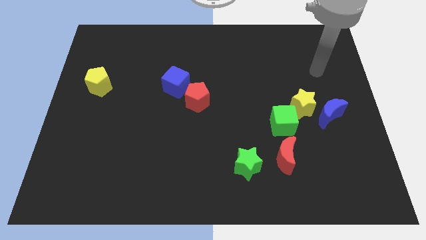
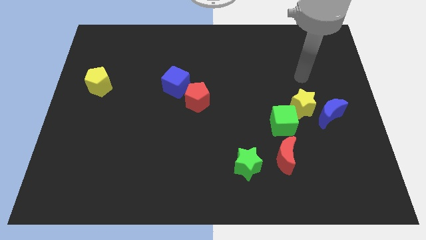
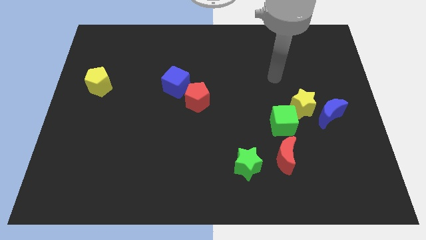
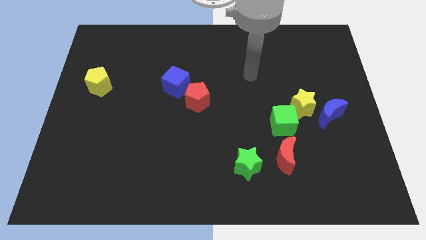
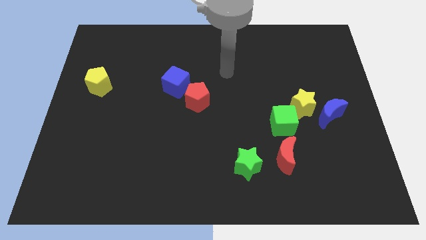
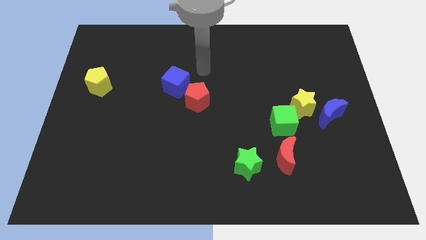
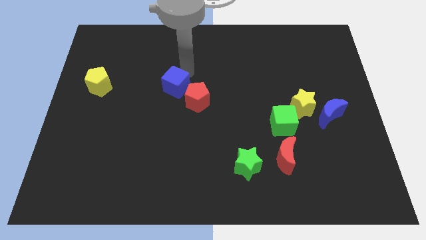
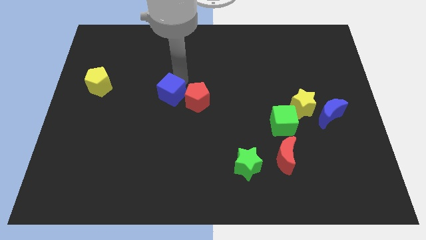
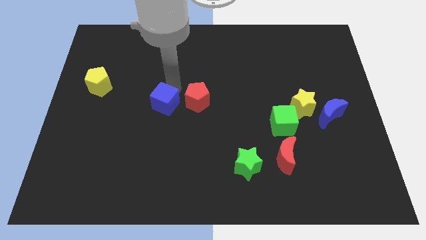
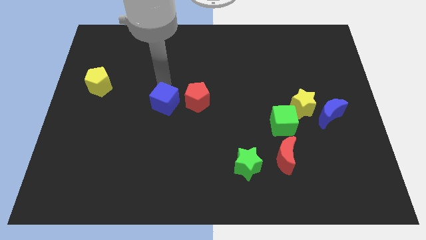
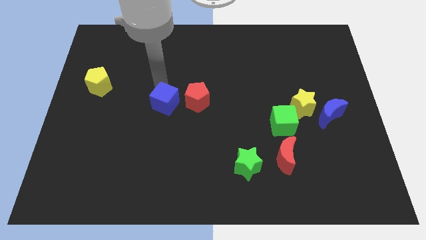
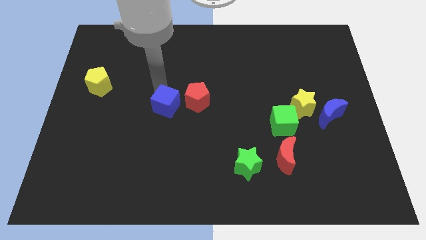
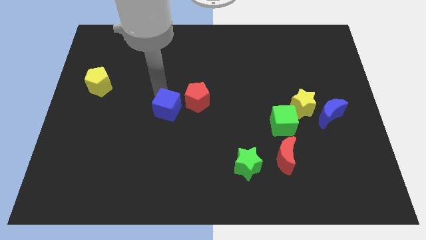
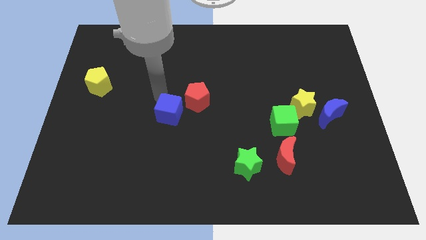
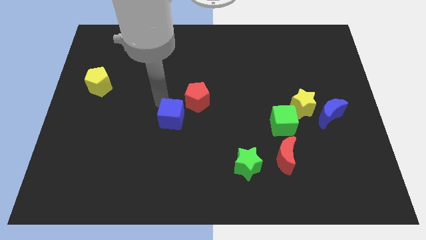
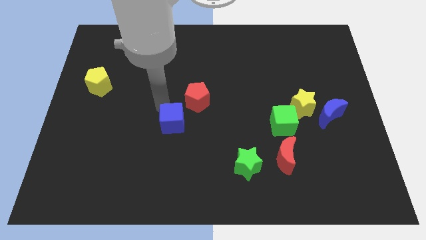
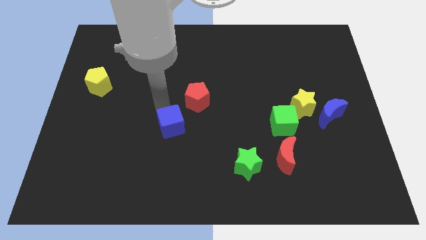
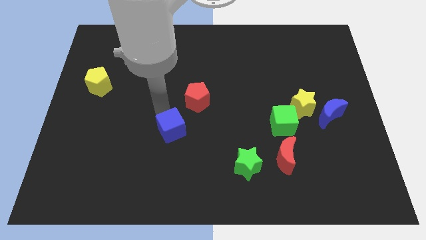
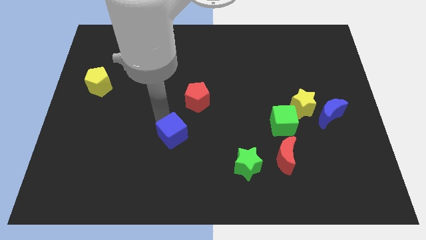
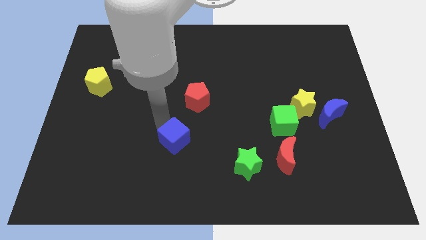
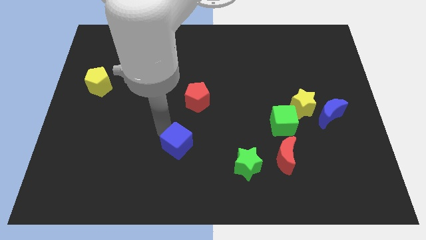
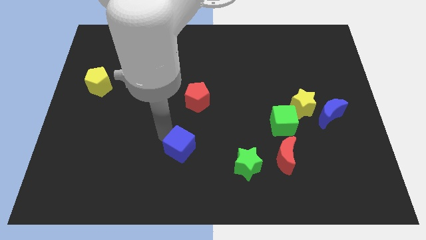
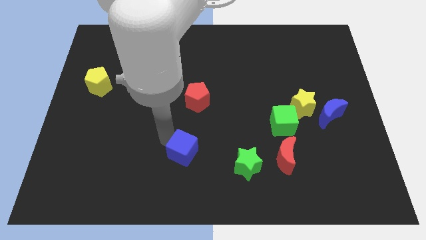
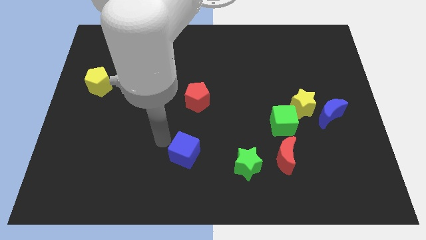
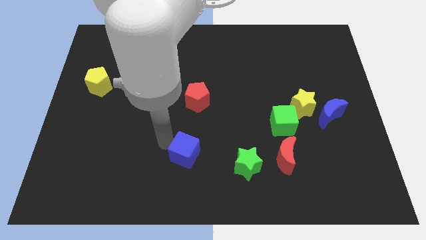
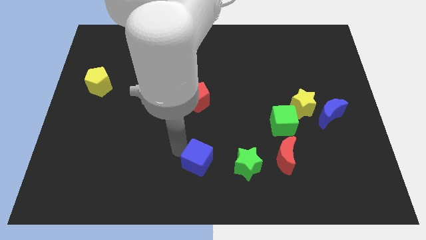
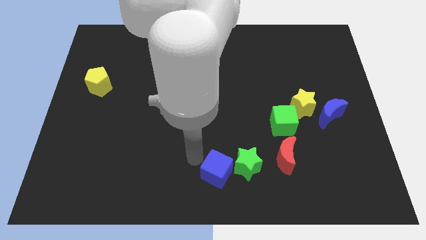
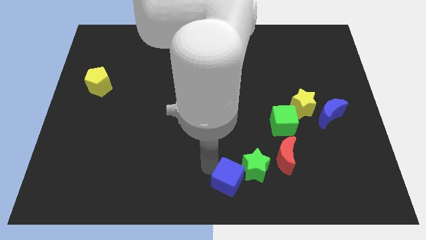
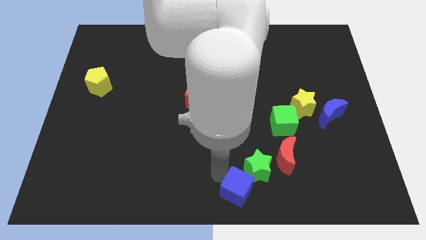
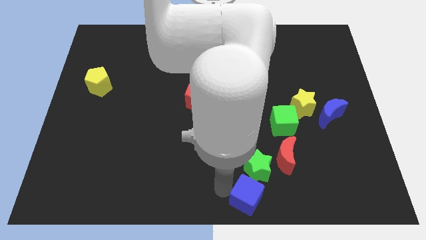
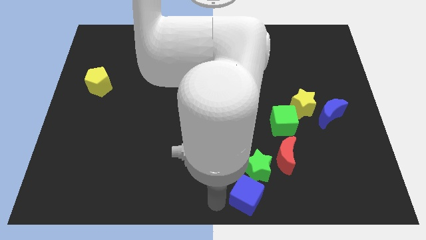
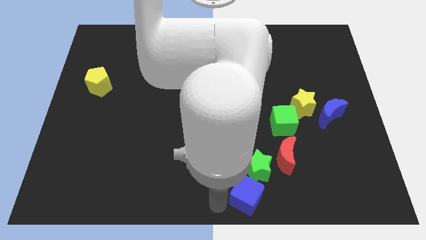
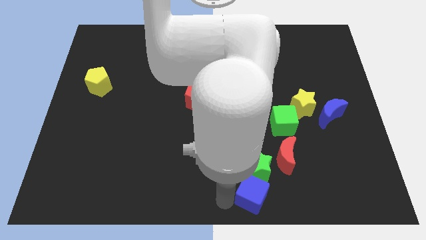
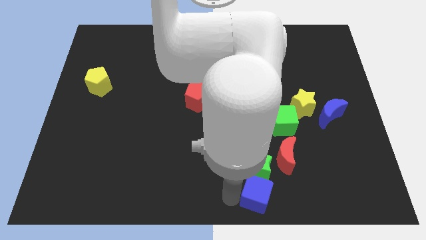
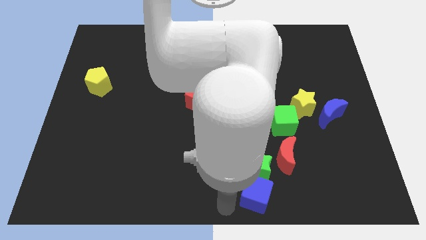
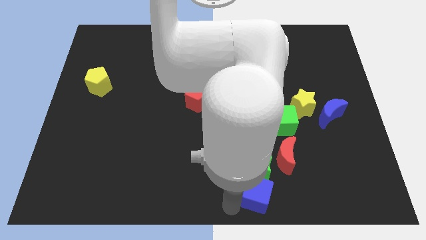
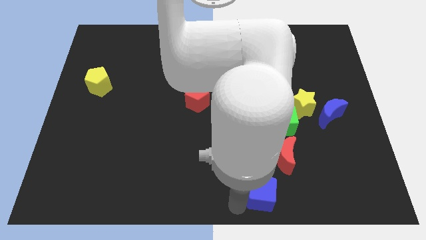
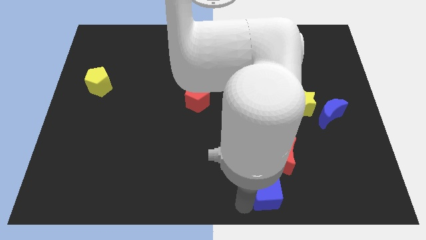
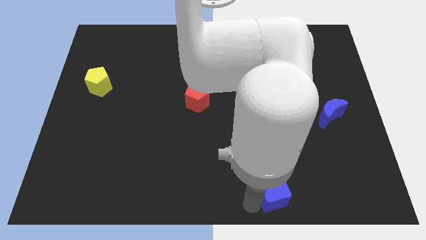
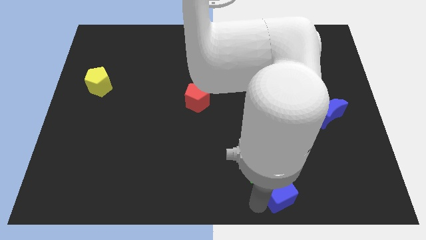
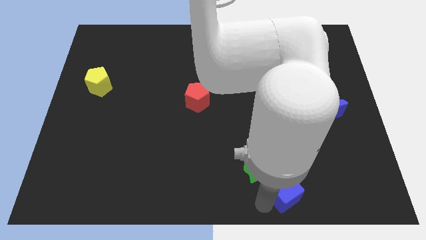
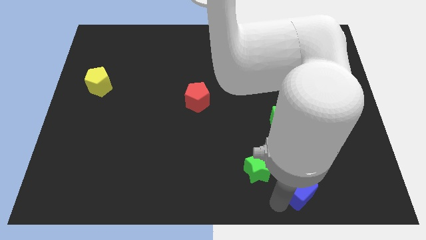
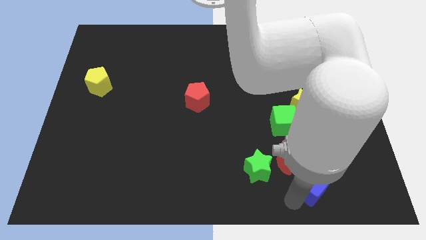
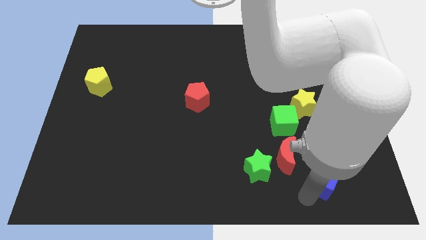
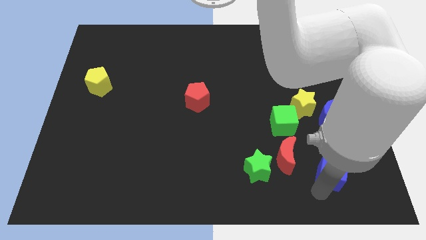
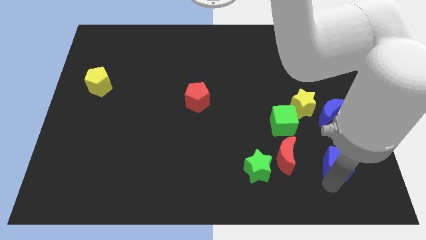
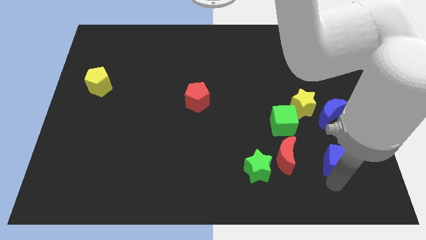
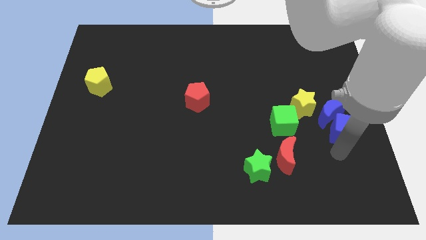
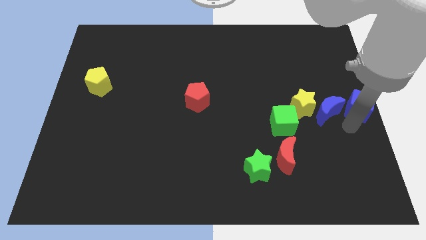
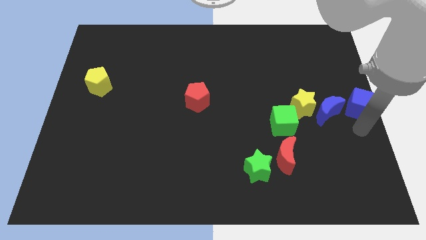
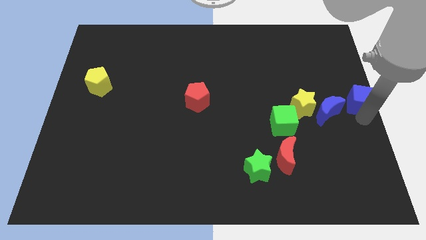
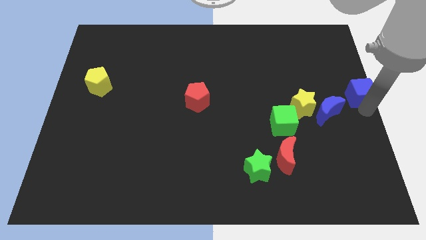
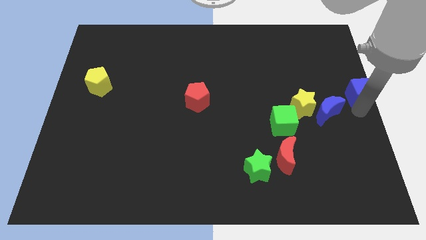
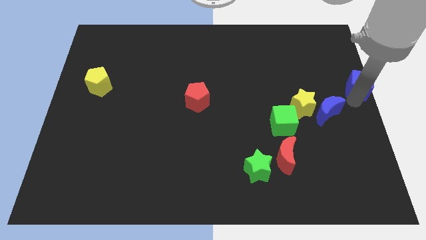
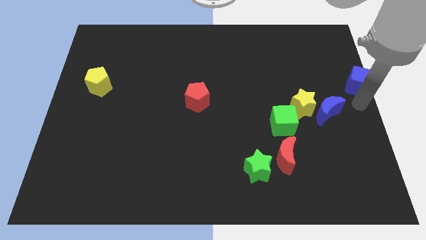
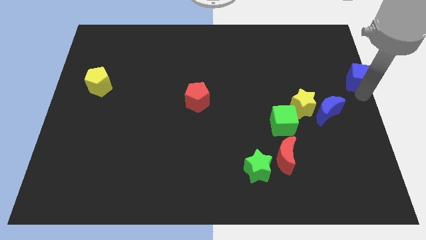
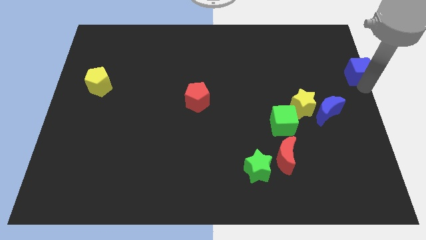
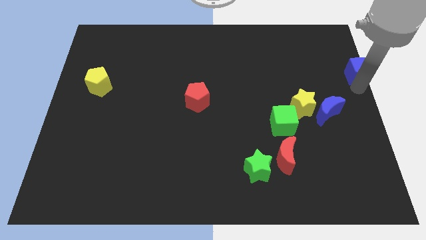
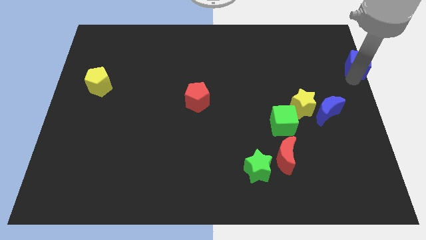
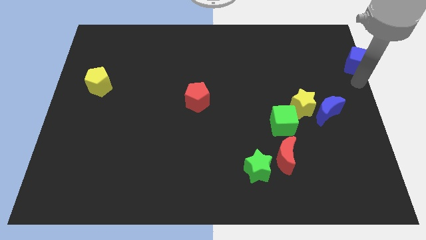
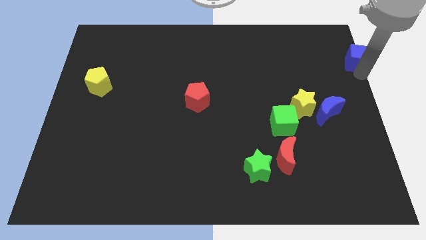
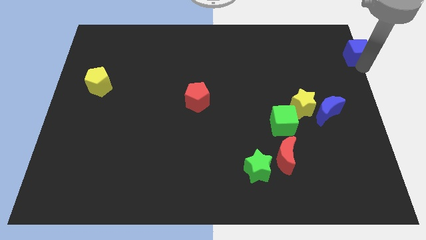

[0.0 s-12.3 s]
put the blue cube to the top right of the board

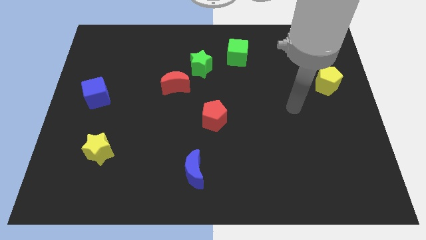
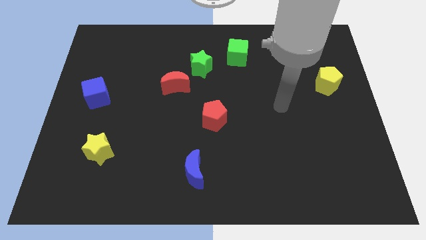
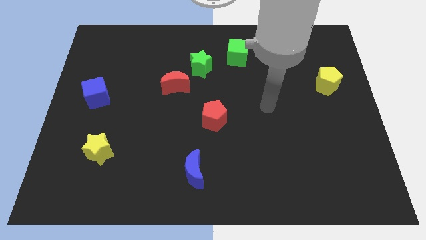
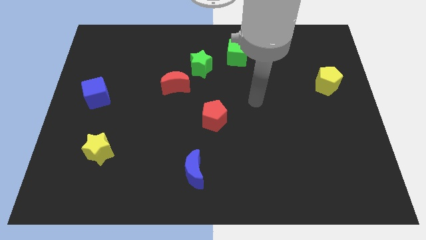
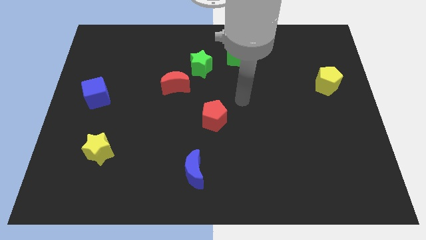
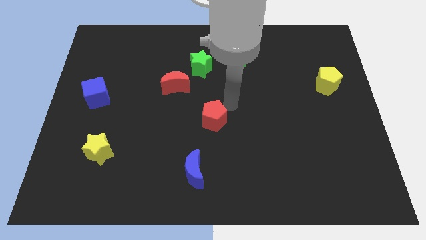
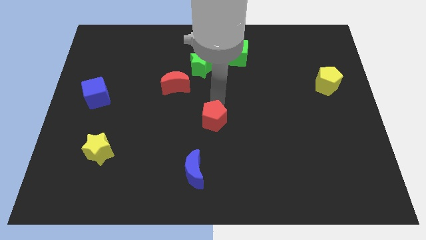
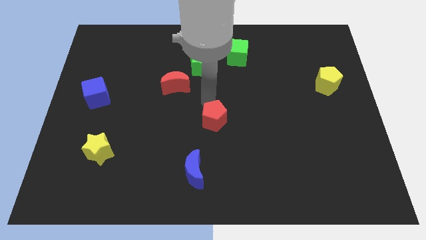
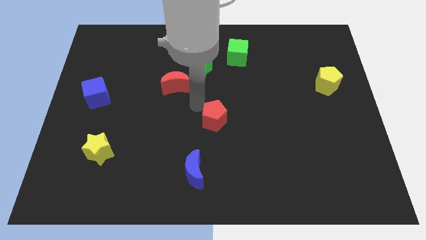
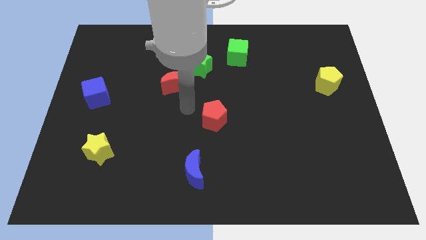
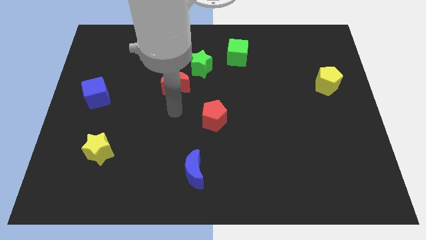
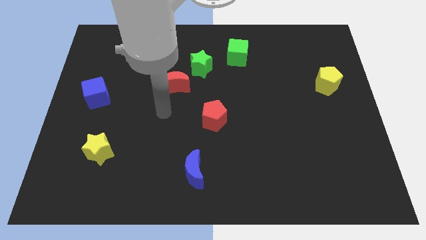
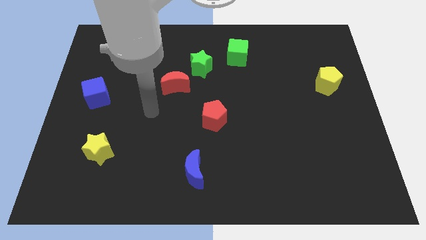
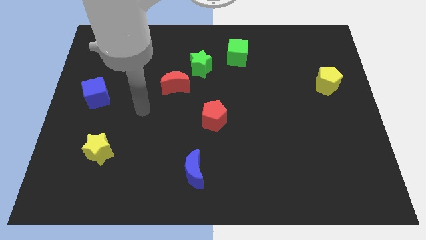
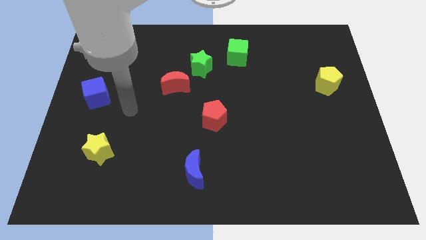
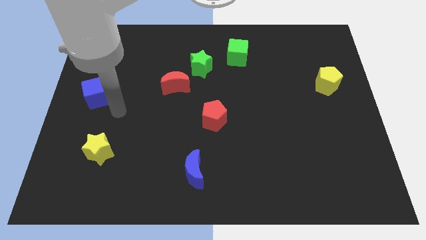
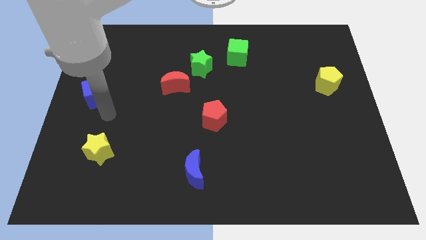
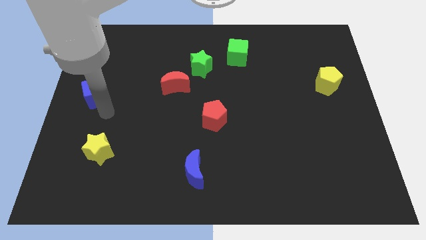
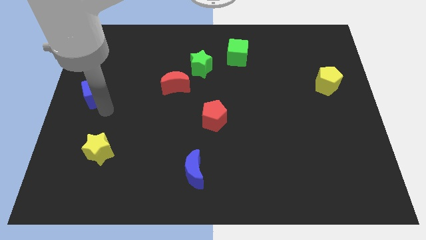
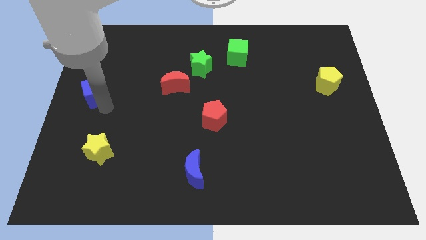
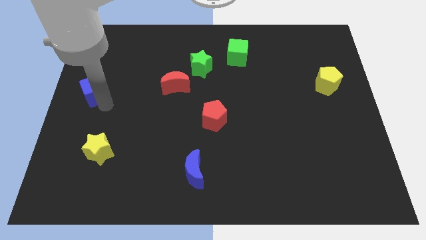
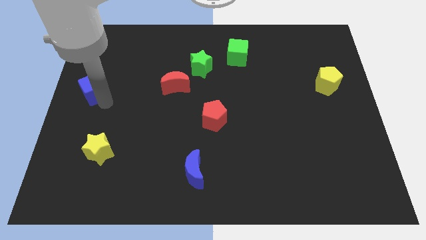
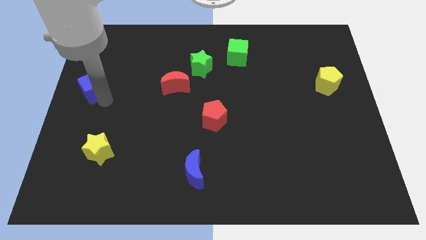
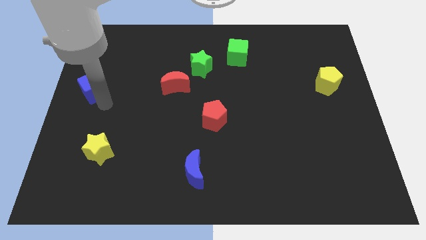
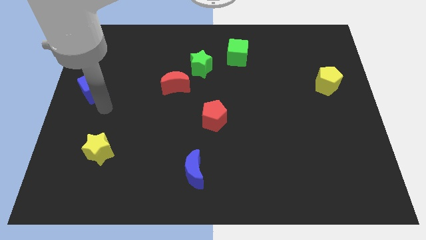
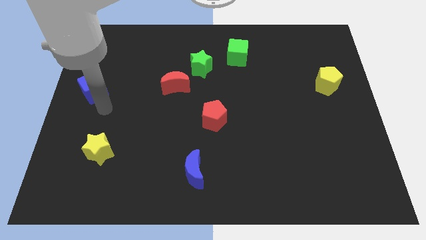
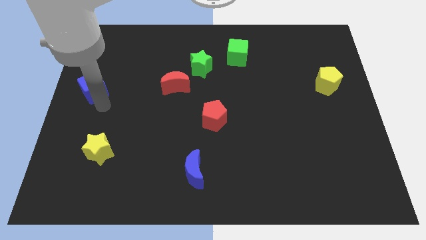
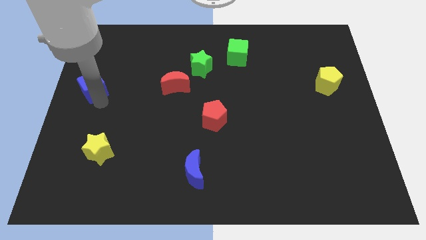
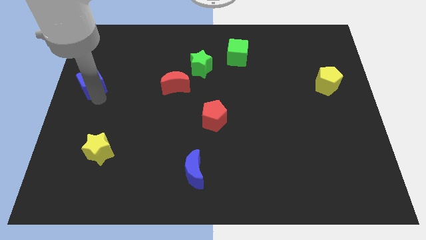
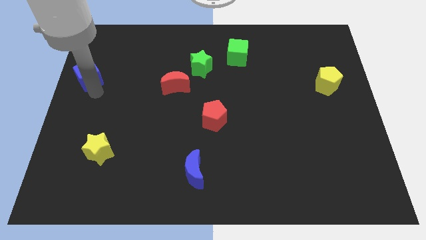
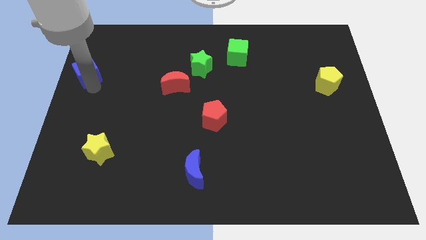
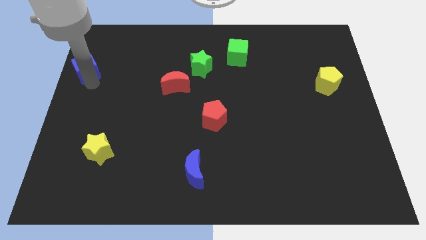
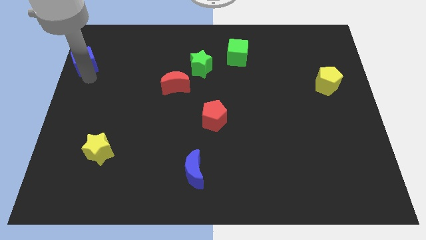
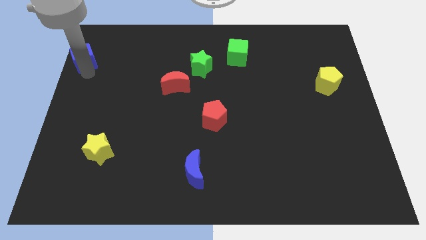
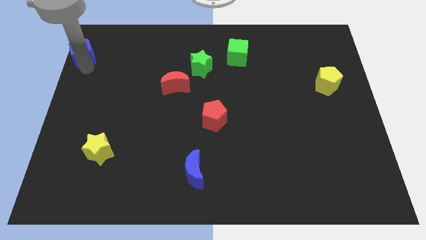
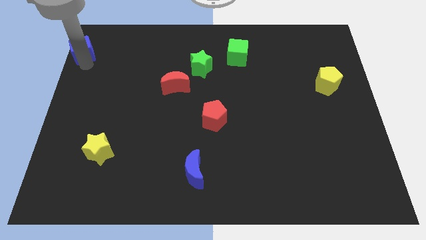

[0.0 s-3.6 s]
slide the blue cube to the upper left corner
